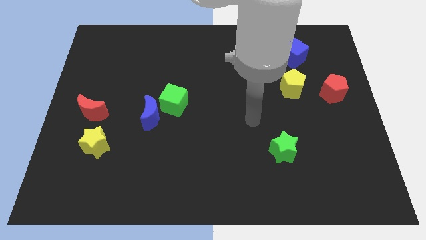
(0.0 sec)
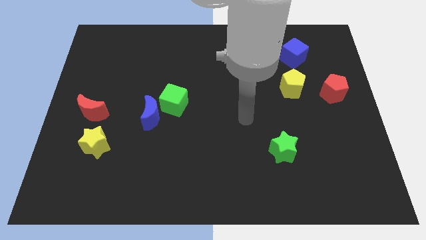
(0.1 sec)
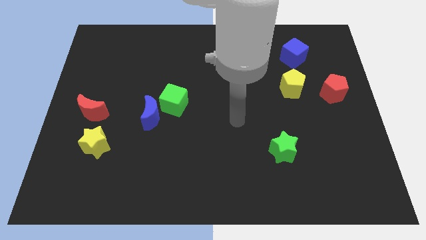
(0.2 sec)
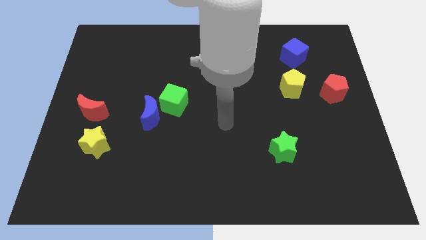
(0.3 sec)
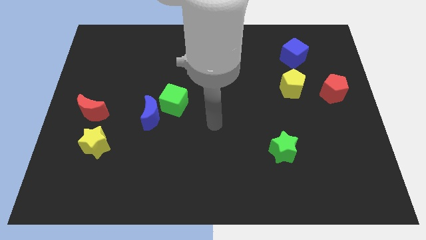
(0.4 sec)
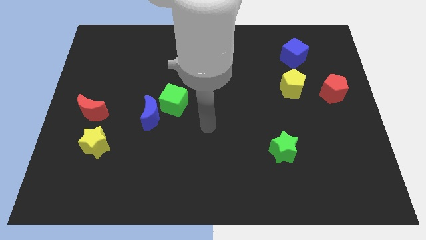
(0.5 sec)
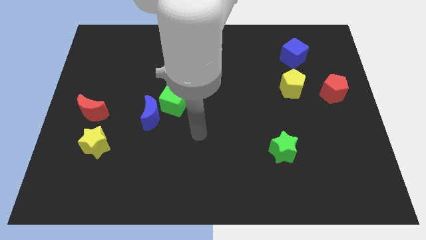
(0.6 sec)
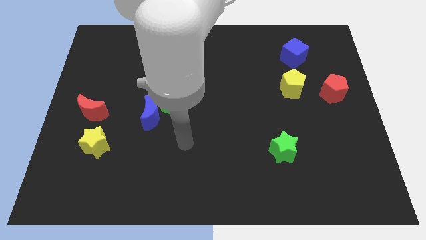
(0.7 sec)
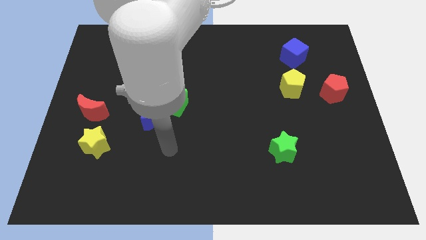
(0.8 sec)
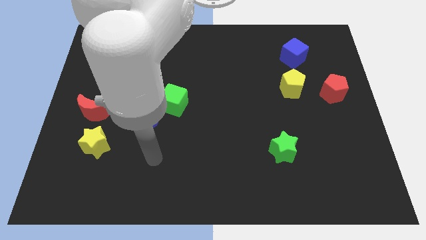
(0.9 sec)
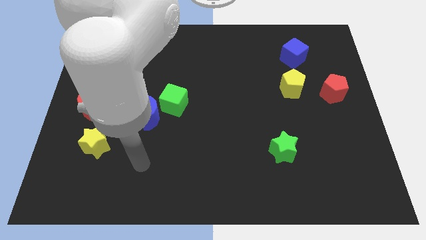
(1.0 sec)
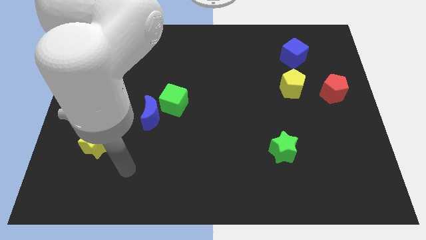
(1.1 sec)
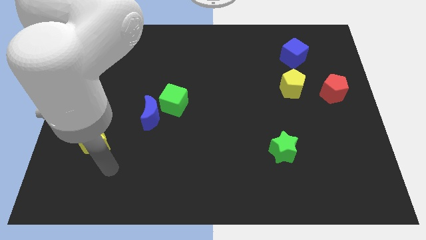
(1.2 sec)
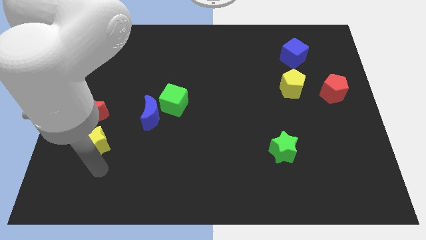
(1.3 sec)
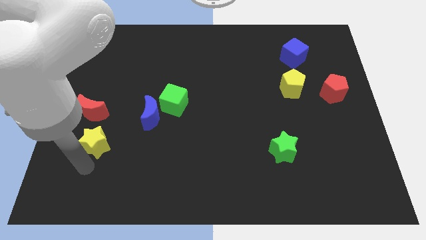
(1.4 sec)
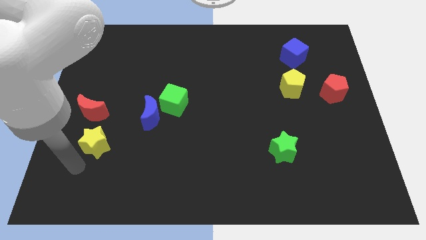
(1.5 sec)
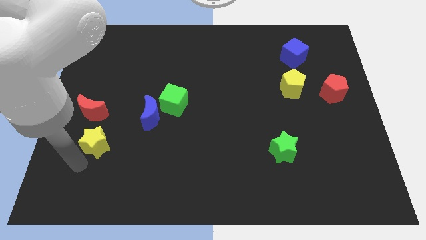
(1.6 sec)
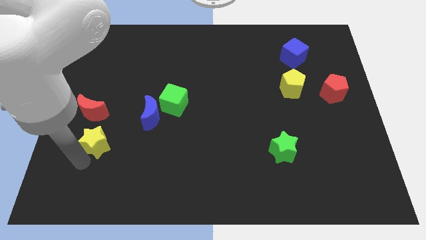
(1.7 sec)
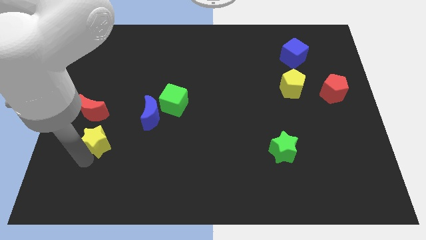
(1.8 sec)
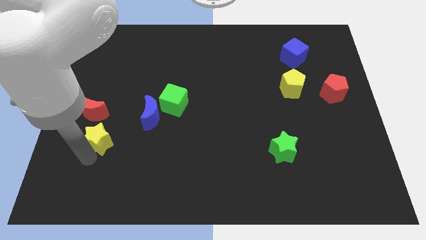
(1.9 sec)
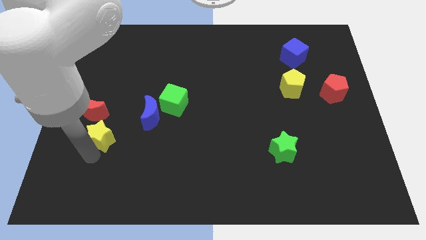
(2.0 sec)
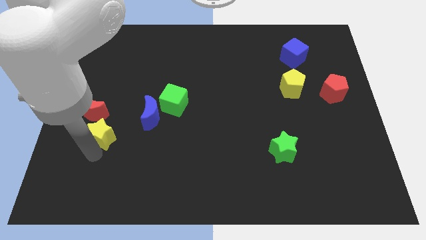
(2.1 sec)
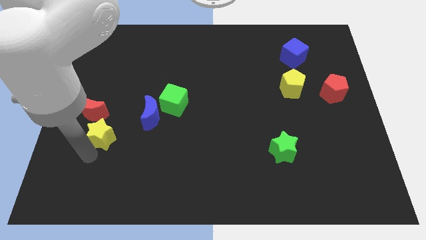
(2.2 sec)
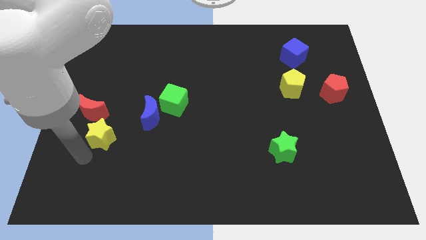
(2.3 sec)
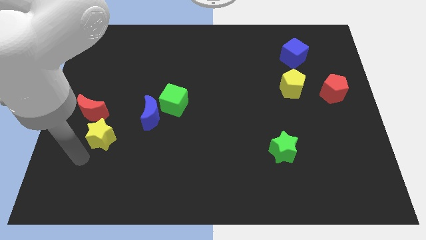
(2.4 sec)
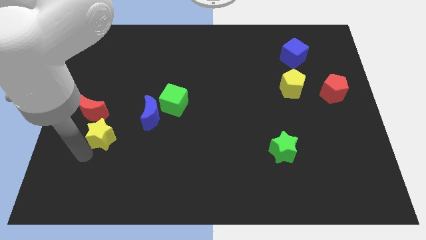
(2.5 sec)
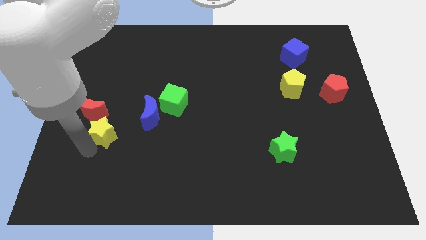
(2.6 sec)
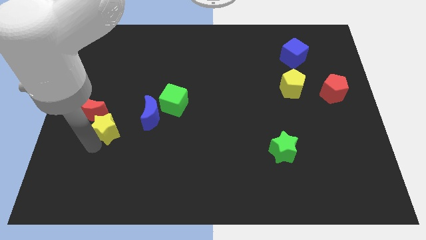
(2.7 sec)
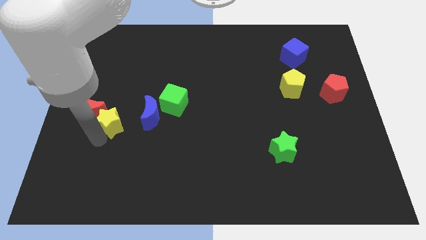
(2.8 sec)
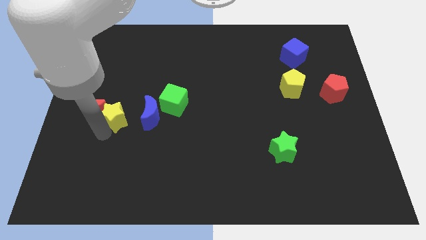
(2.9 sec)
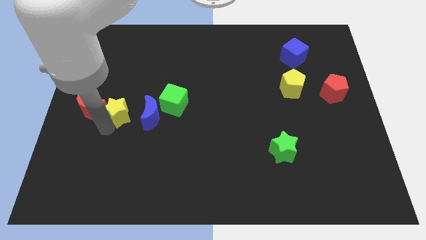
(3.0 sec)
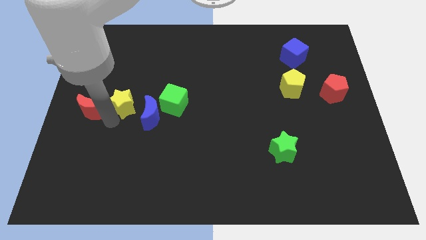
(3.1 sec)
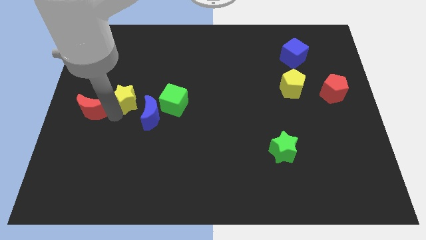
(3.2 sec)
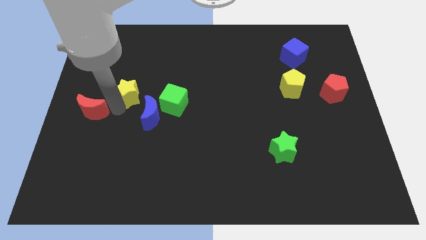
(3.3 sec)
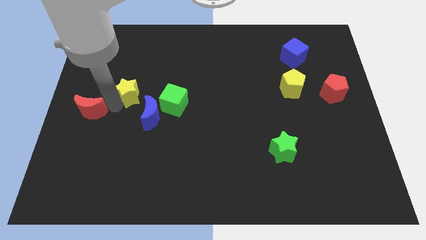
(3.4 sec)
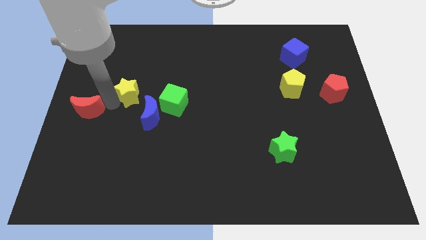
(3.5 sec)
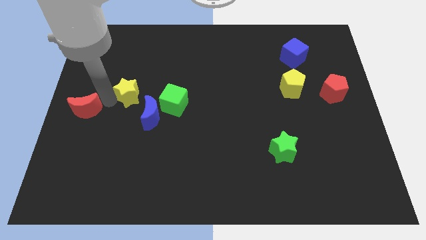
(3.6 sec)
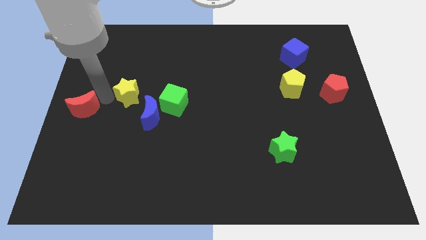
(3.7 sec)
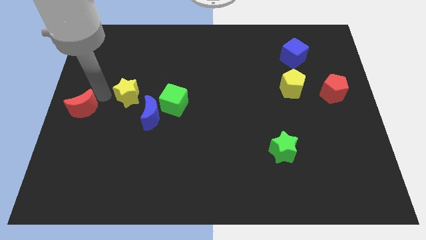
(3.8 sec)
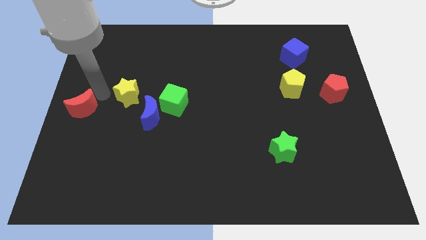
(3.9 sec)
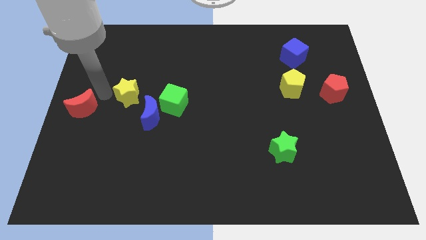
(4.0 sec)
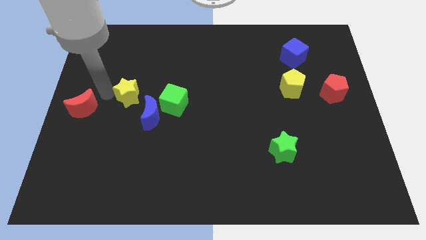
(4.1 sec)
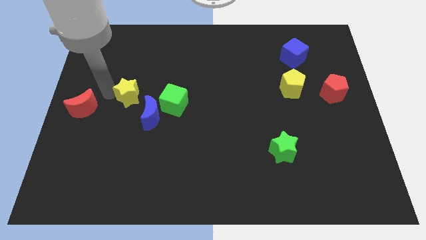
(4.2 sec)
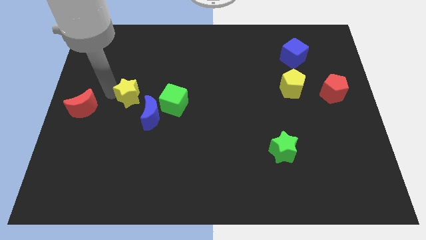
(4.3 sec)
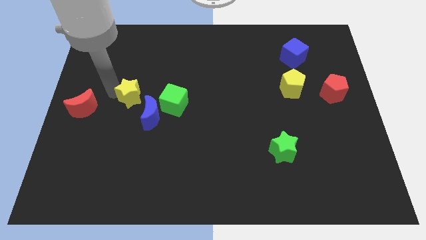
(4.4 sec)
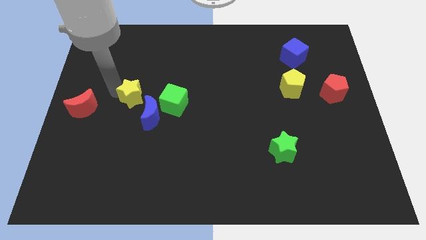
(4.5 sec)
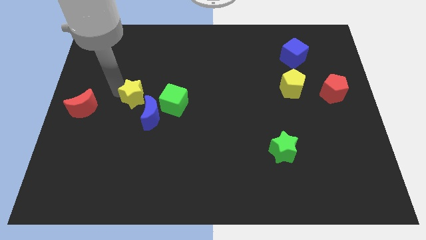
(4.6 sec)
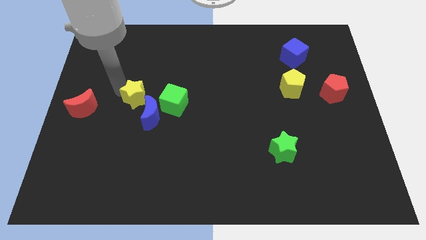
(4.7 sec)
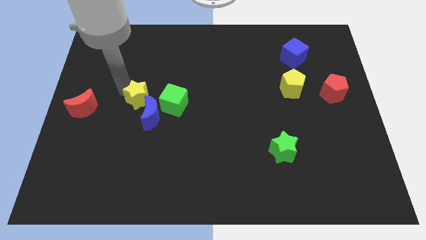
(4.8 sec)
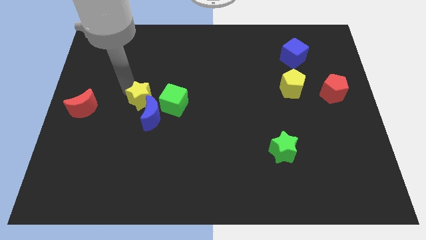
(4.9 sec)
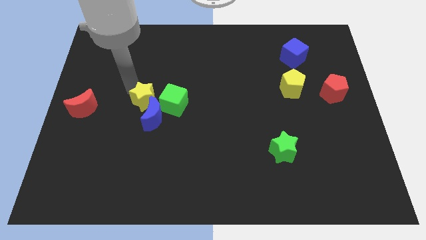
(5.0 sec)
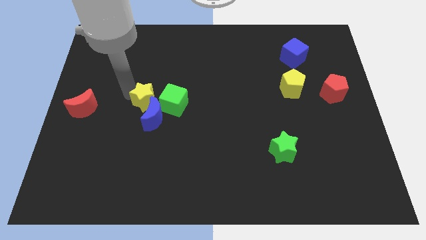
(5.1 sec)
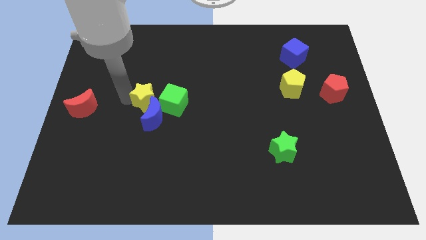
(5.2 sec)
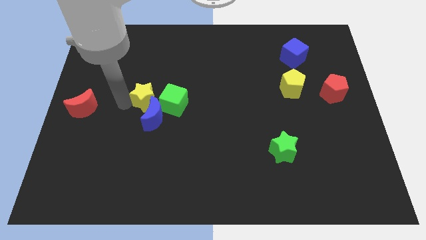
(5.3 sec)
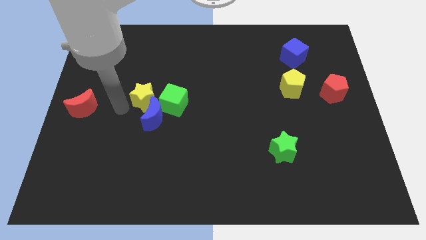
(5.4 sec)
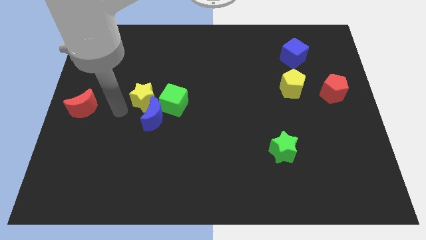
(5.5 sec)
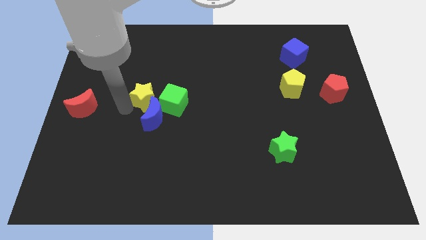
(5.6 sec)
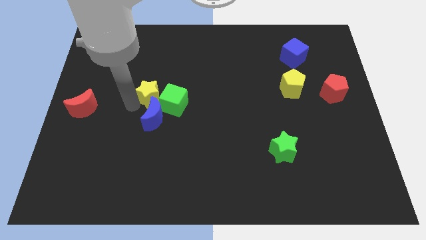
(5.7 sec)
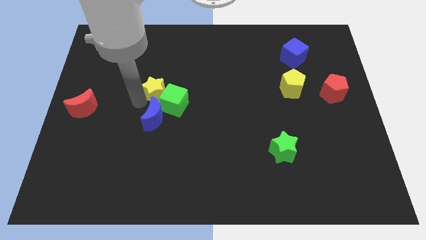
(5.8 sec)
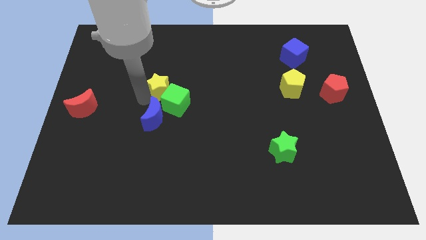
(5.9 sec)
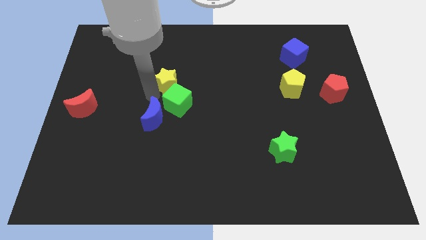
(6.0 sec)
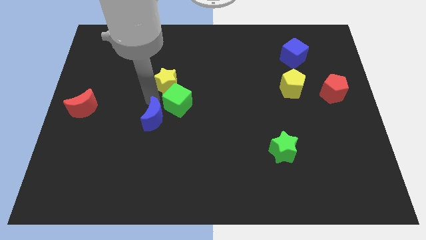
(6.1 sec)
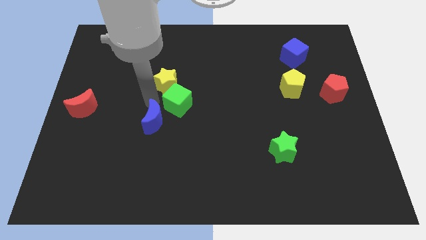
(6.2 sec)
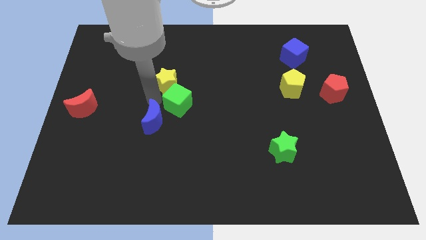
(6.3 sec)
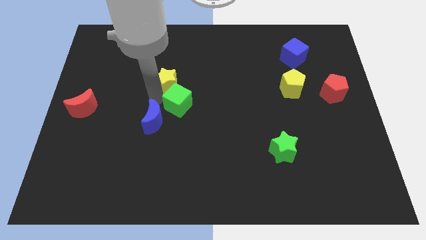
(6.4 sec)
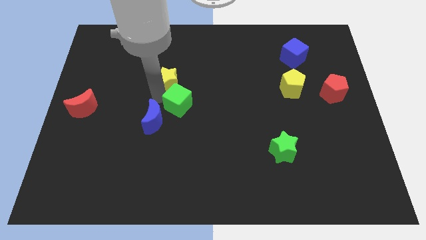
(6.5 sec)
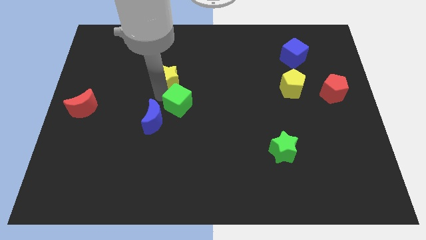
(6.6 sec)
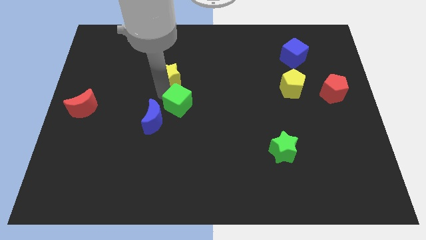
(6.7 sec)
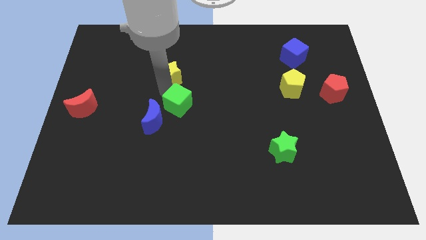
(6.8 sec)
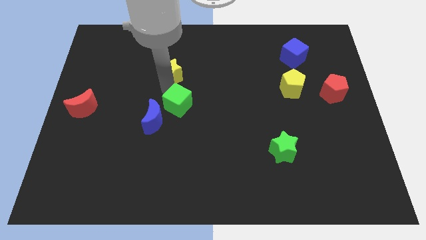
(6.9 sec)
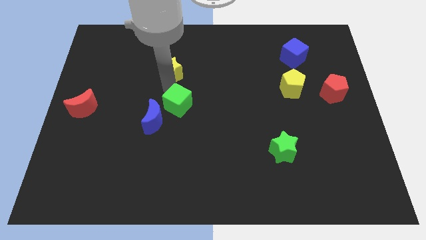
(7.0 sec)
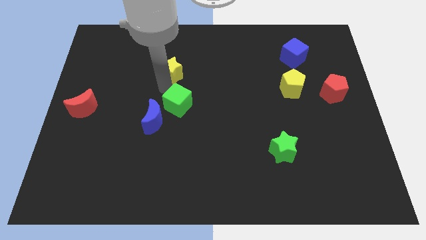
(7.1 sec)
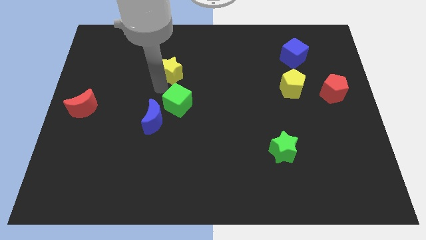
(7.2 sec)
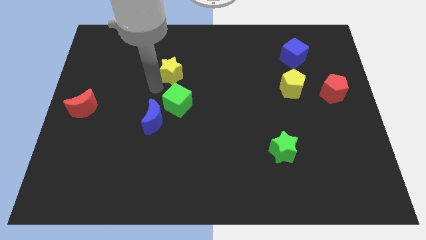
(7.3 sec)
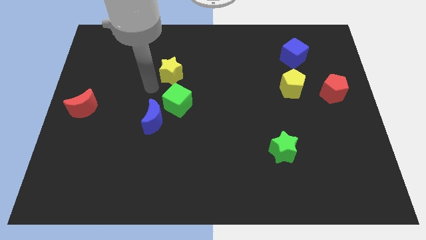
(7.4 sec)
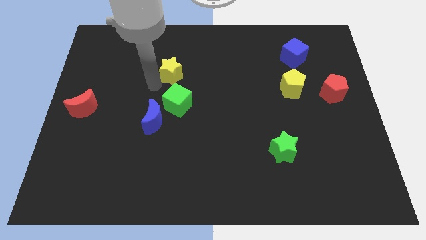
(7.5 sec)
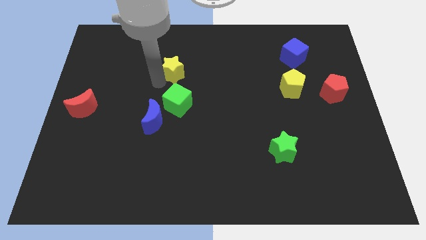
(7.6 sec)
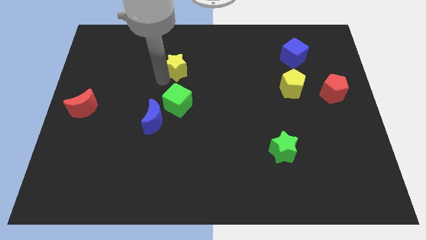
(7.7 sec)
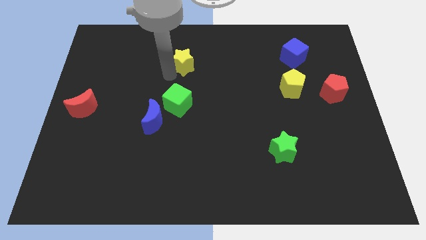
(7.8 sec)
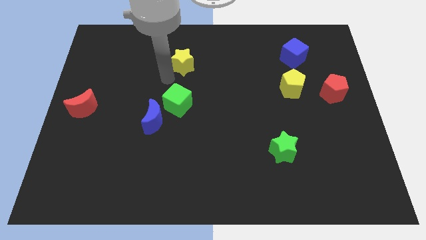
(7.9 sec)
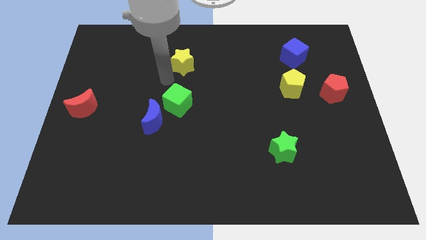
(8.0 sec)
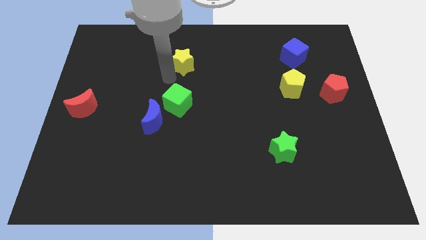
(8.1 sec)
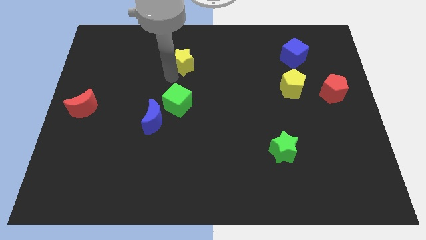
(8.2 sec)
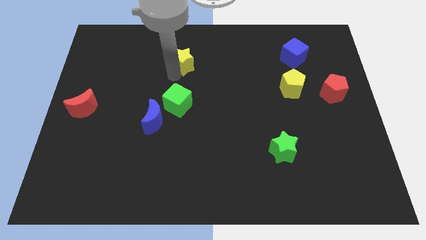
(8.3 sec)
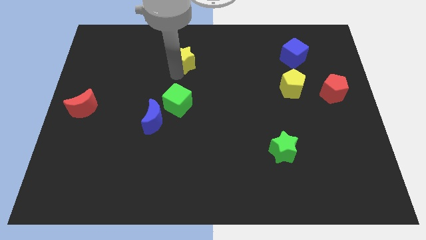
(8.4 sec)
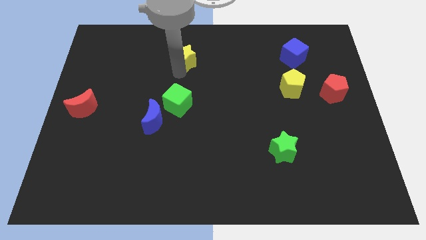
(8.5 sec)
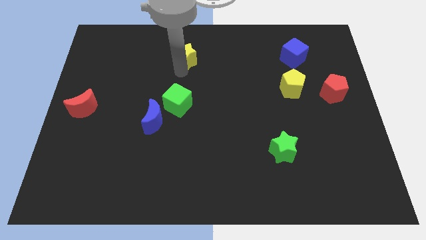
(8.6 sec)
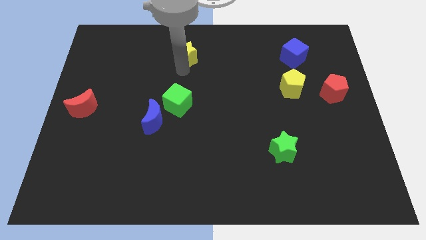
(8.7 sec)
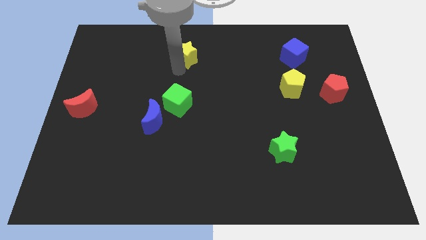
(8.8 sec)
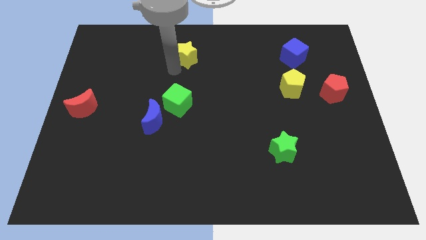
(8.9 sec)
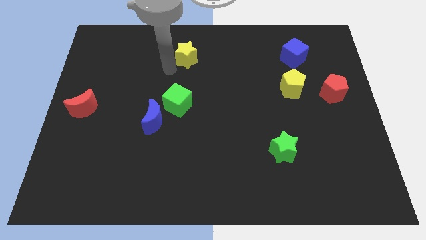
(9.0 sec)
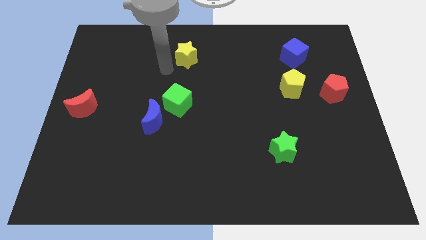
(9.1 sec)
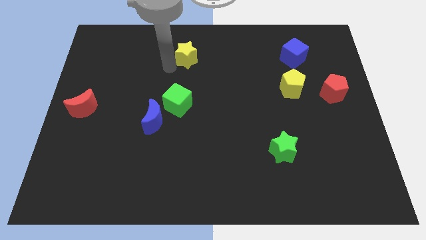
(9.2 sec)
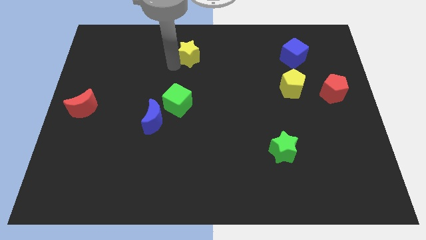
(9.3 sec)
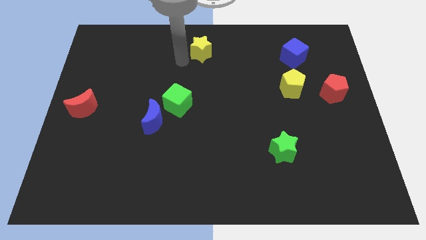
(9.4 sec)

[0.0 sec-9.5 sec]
put the yellow star to the top side
